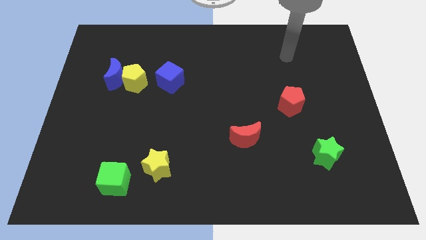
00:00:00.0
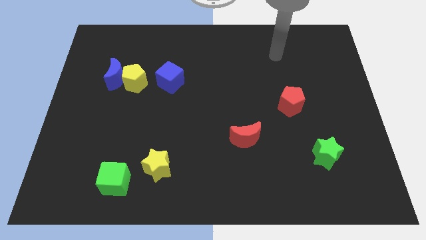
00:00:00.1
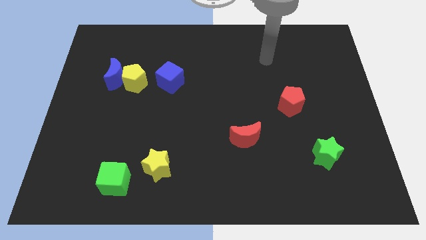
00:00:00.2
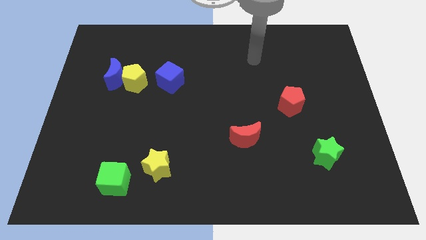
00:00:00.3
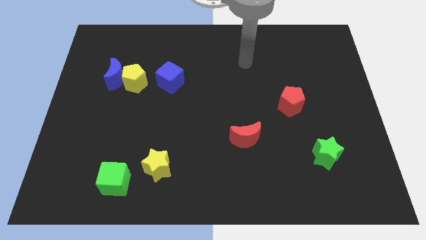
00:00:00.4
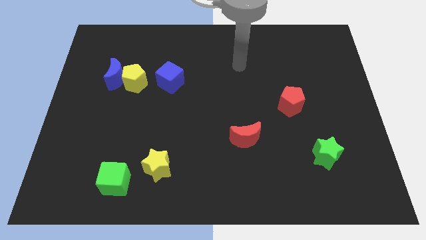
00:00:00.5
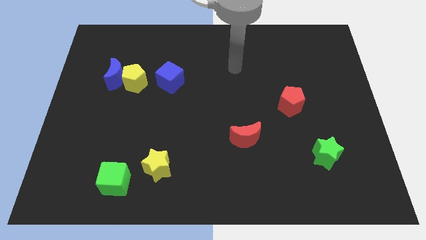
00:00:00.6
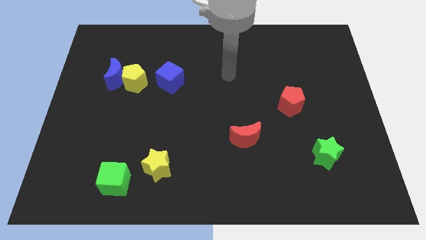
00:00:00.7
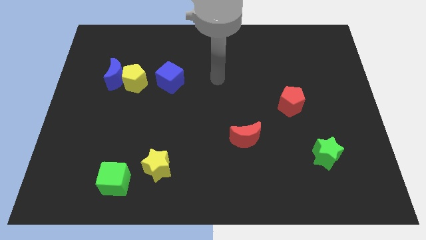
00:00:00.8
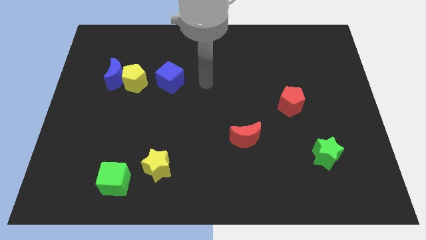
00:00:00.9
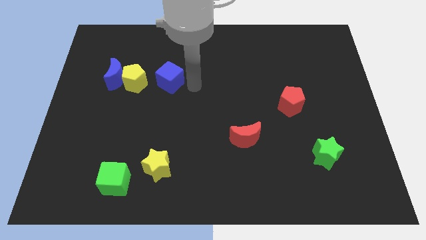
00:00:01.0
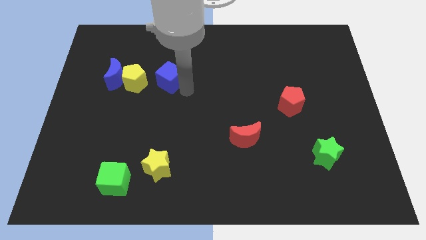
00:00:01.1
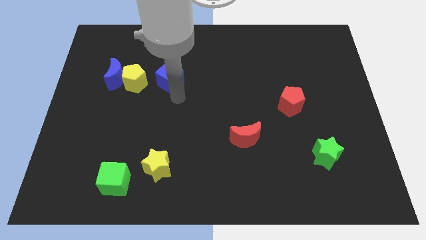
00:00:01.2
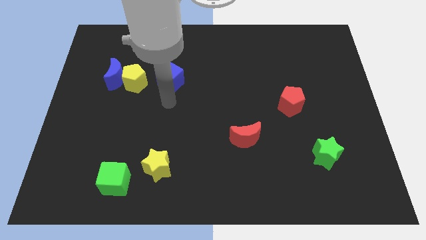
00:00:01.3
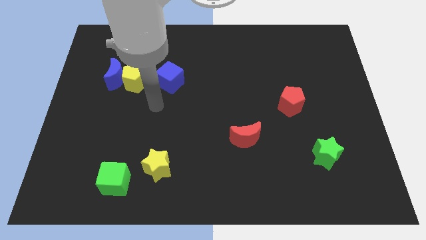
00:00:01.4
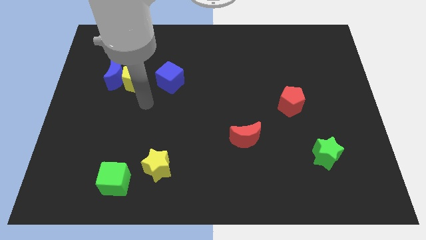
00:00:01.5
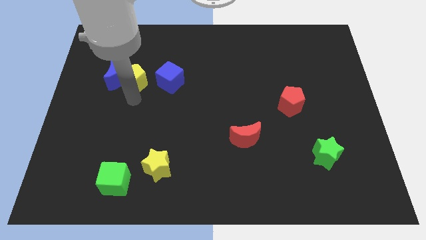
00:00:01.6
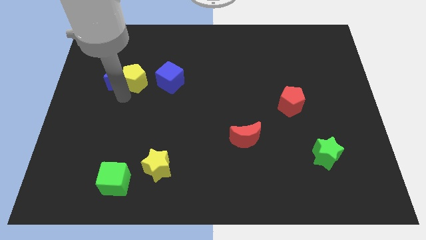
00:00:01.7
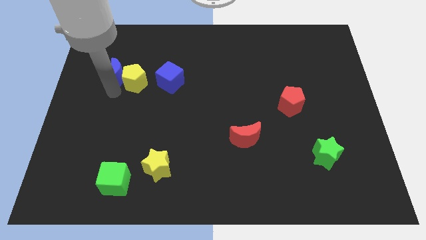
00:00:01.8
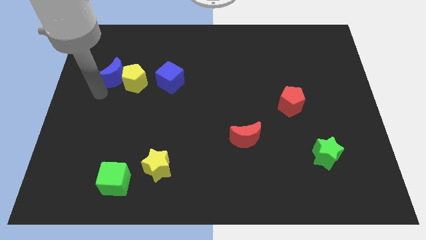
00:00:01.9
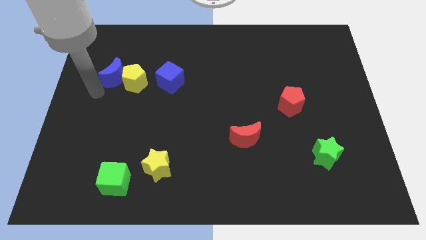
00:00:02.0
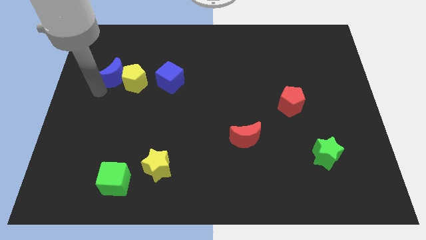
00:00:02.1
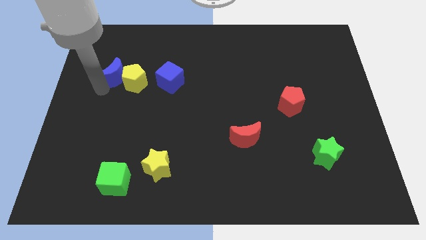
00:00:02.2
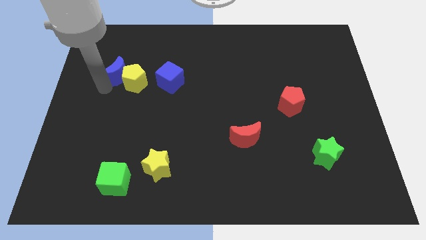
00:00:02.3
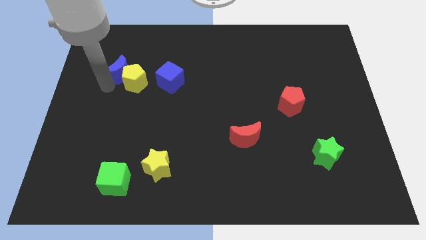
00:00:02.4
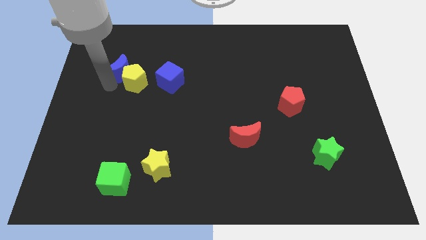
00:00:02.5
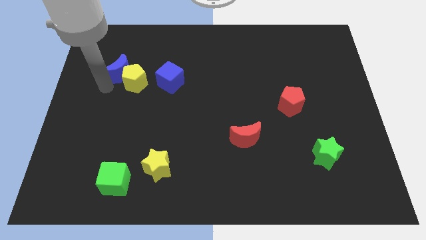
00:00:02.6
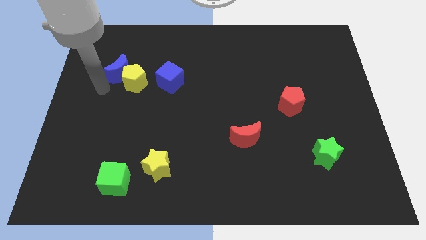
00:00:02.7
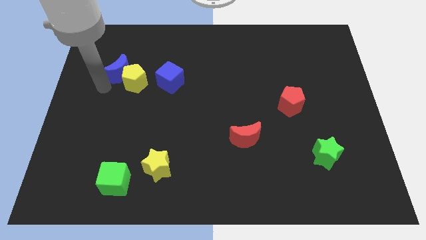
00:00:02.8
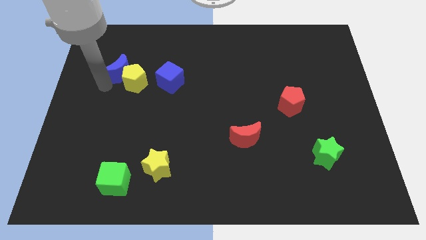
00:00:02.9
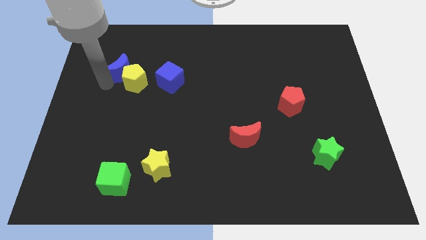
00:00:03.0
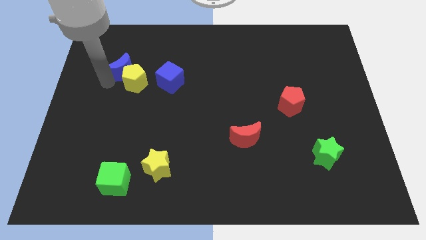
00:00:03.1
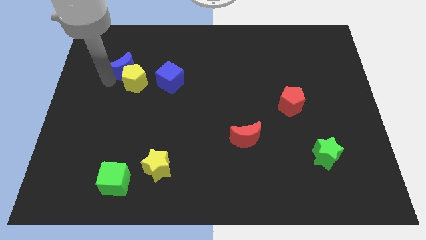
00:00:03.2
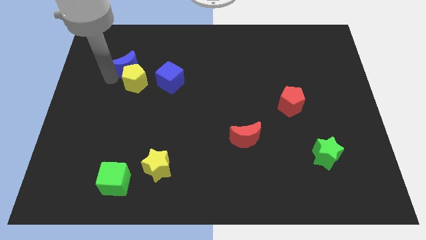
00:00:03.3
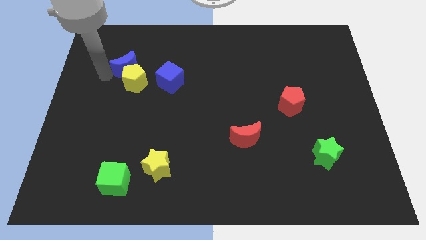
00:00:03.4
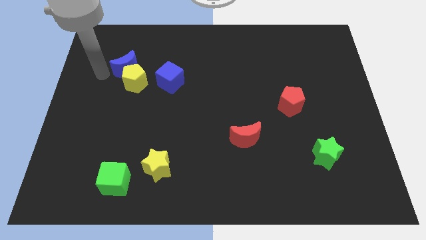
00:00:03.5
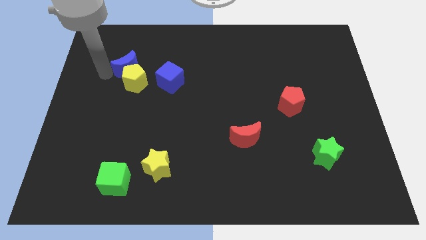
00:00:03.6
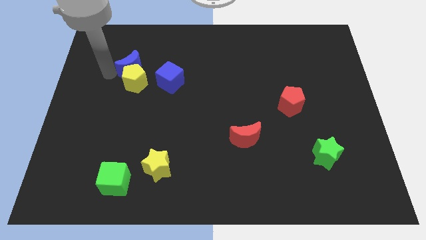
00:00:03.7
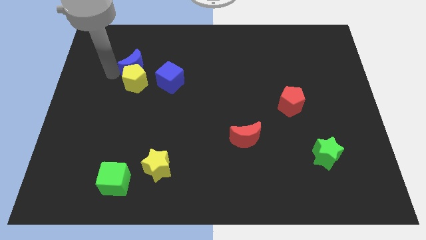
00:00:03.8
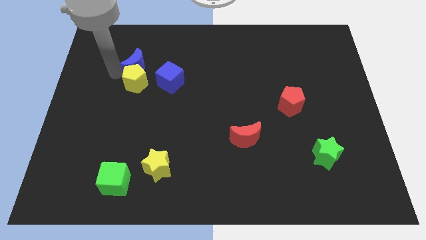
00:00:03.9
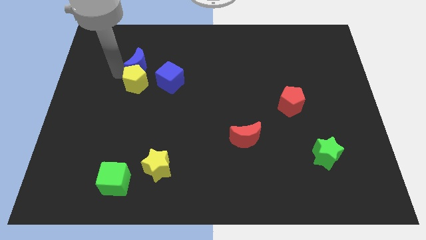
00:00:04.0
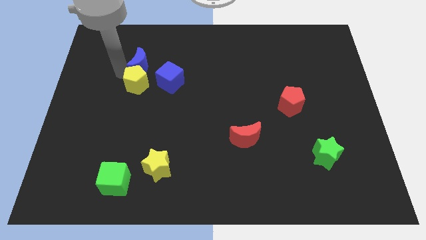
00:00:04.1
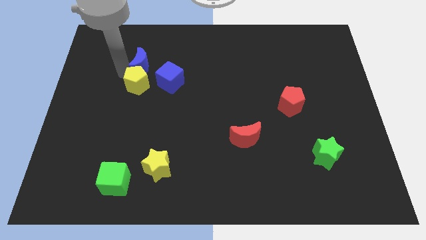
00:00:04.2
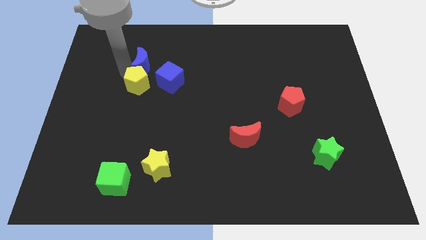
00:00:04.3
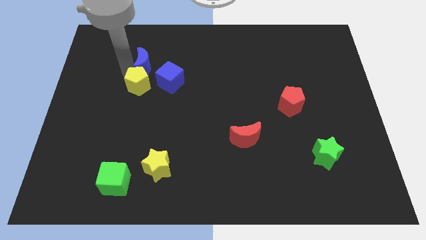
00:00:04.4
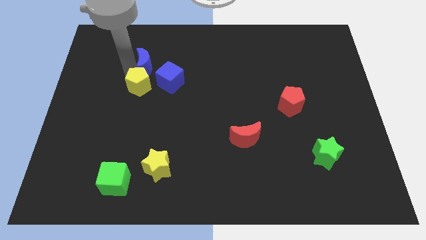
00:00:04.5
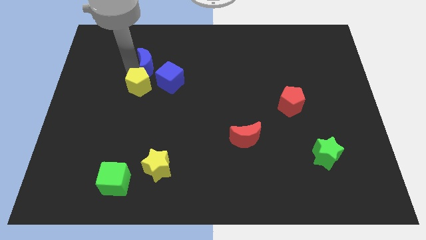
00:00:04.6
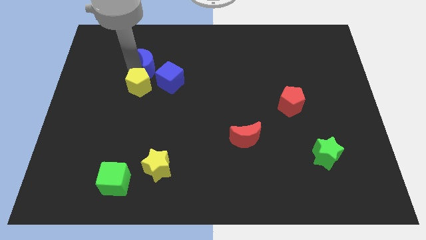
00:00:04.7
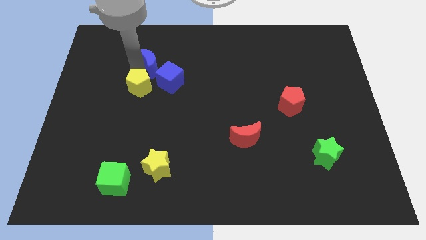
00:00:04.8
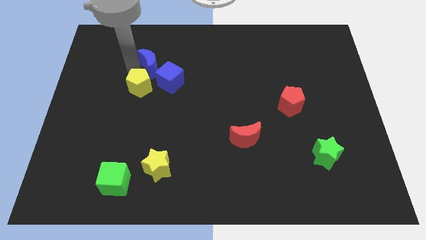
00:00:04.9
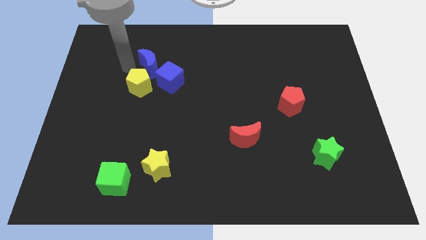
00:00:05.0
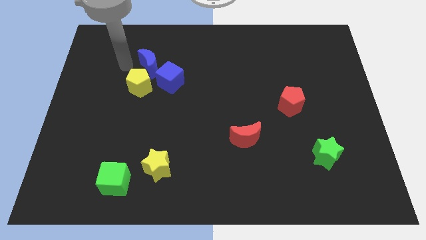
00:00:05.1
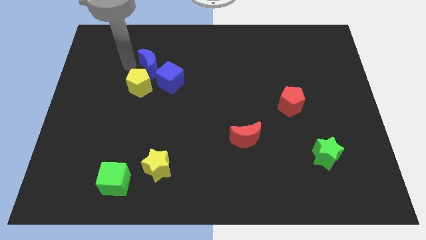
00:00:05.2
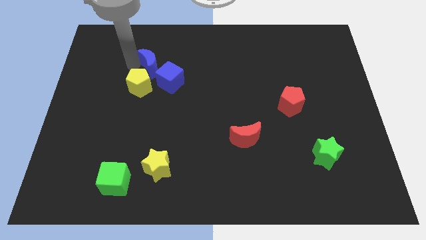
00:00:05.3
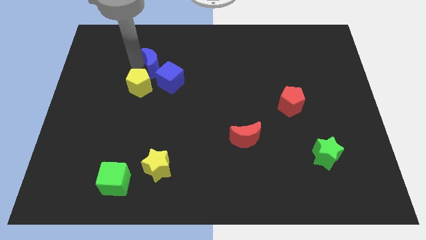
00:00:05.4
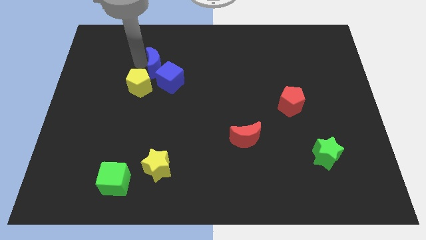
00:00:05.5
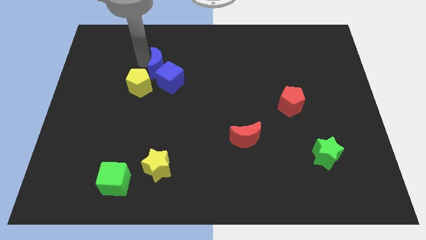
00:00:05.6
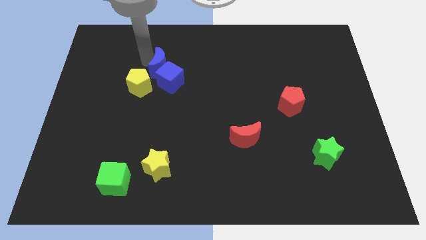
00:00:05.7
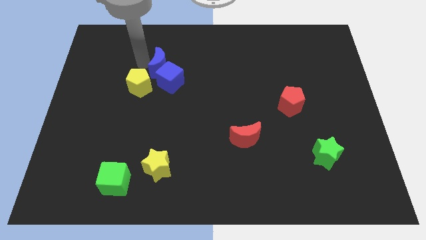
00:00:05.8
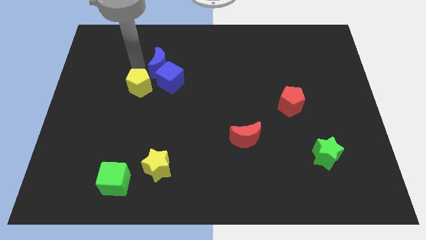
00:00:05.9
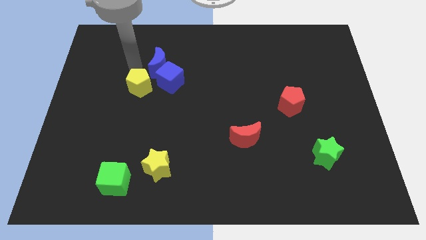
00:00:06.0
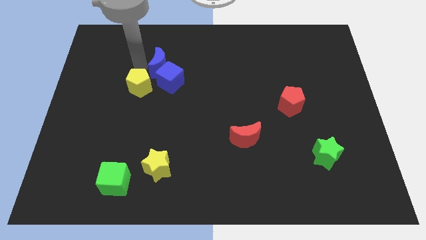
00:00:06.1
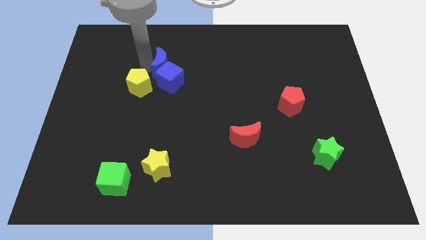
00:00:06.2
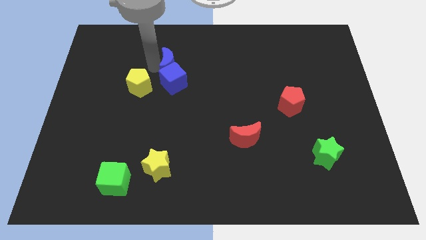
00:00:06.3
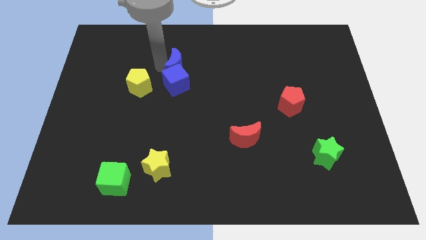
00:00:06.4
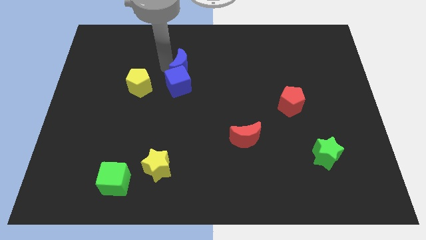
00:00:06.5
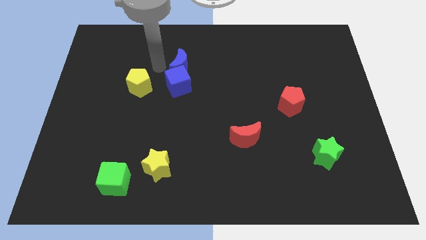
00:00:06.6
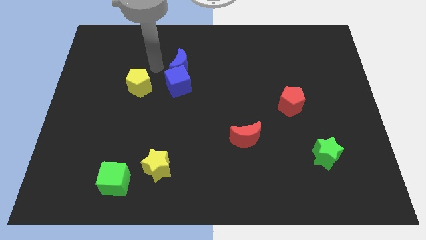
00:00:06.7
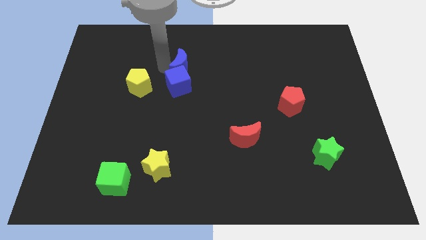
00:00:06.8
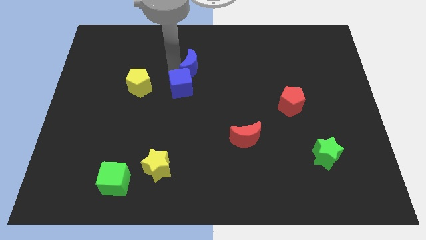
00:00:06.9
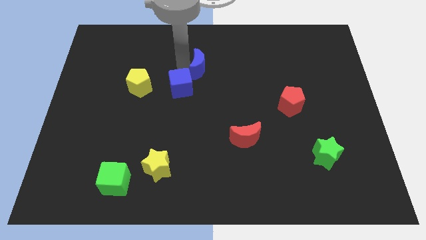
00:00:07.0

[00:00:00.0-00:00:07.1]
move the blue moon right

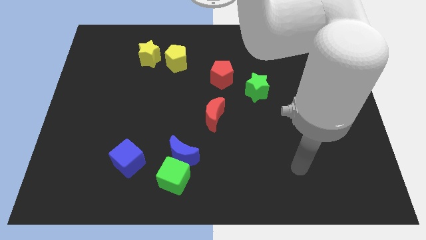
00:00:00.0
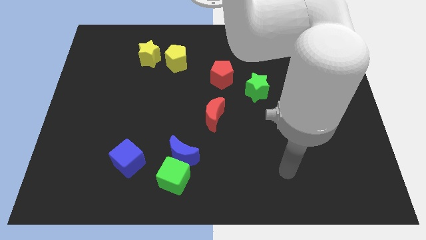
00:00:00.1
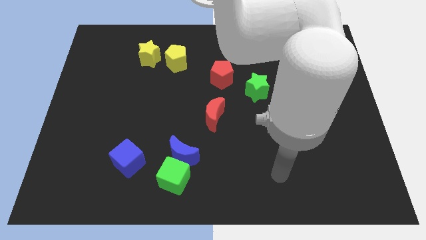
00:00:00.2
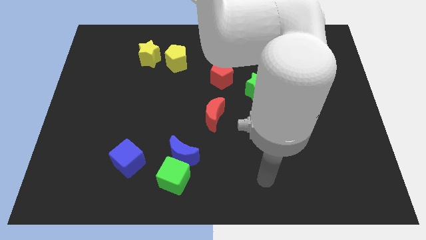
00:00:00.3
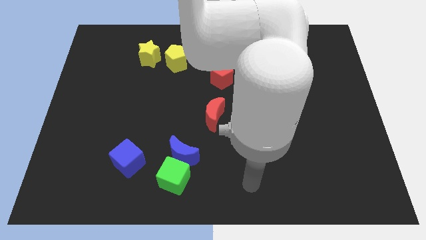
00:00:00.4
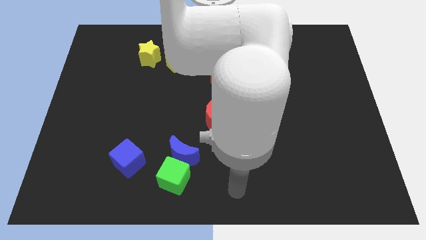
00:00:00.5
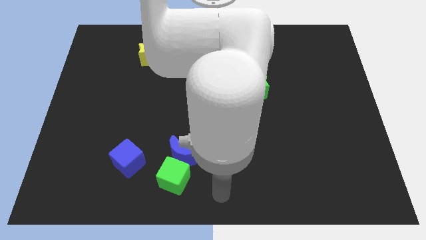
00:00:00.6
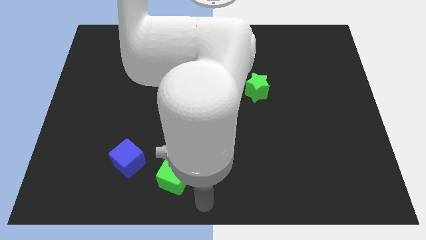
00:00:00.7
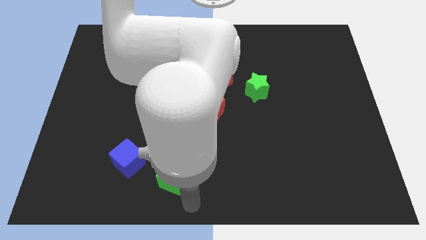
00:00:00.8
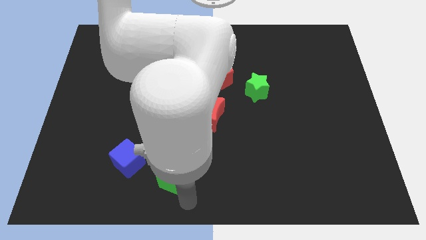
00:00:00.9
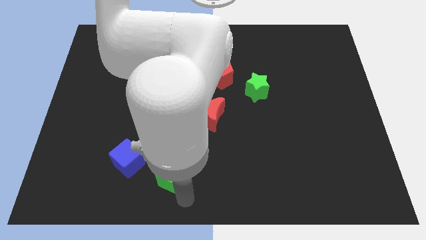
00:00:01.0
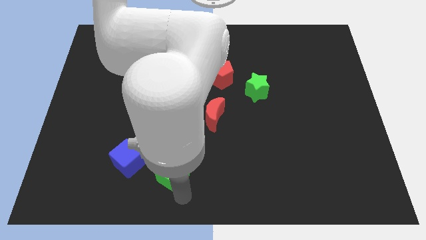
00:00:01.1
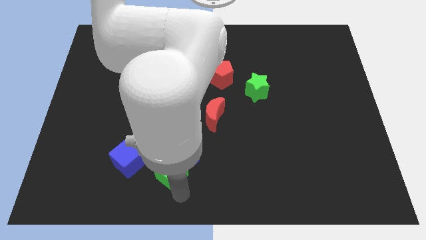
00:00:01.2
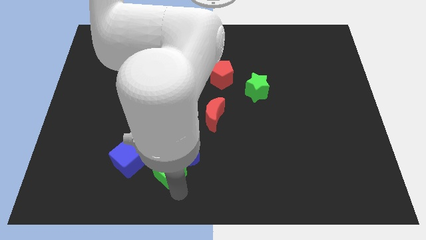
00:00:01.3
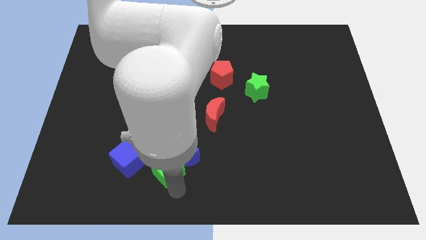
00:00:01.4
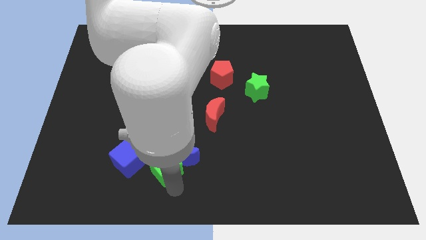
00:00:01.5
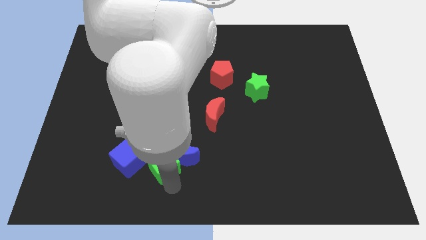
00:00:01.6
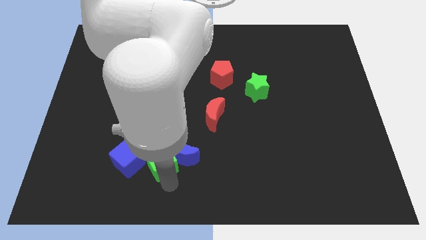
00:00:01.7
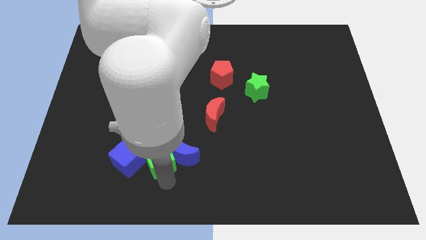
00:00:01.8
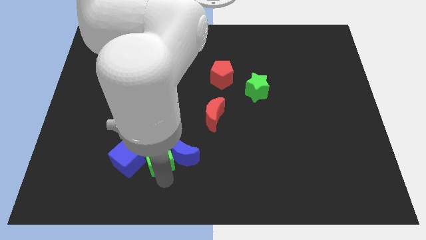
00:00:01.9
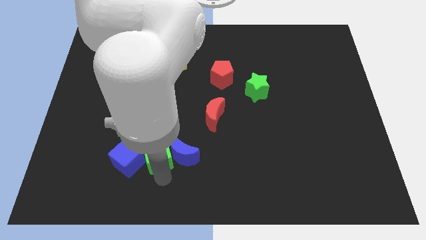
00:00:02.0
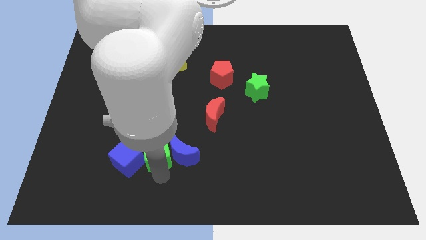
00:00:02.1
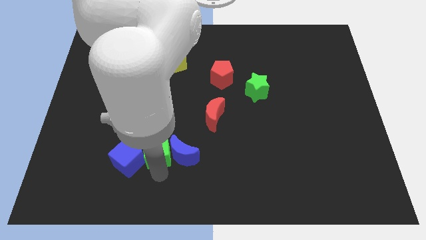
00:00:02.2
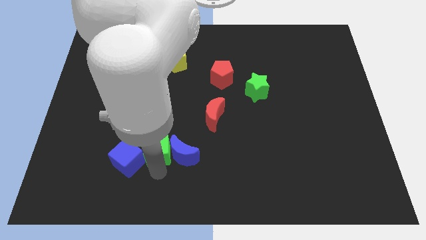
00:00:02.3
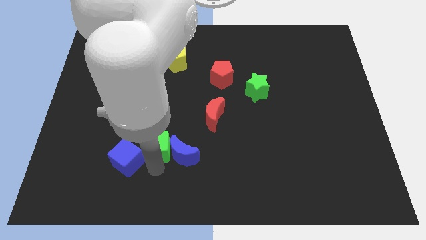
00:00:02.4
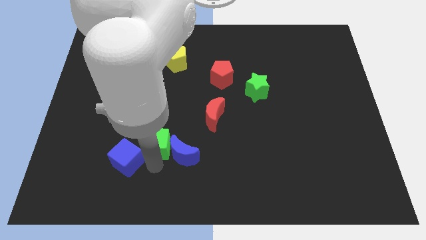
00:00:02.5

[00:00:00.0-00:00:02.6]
slightly move the green cube upwards
